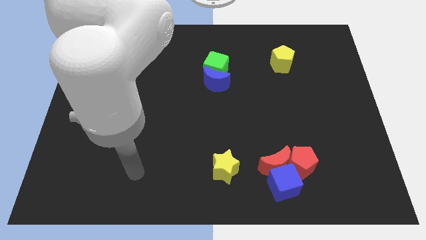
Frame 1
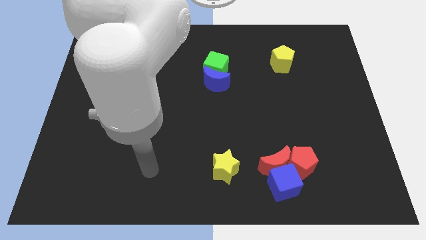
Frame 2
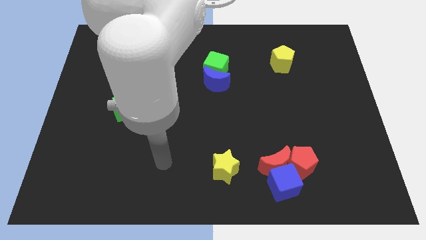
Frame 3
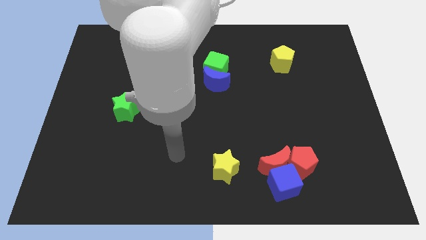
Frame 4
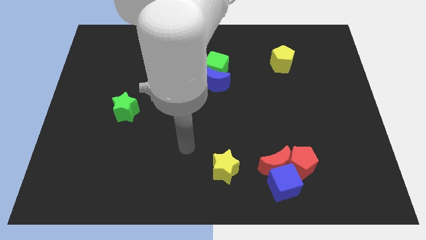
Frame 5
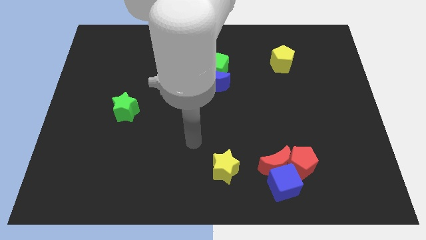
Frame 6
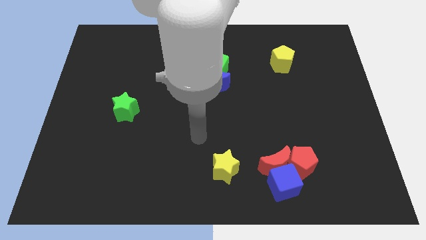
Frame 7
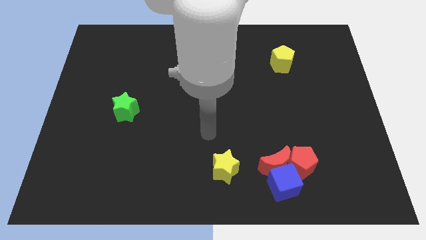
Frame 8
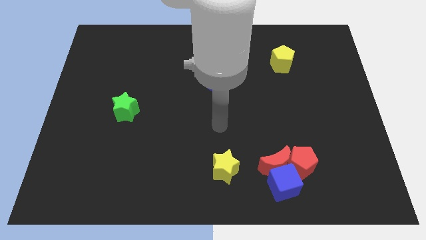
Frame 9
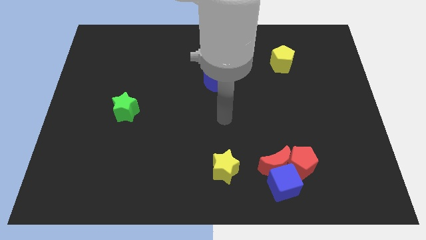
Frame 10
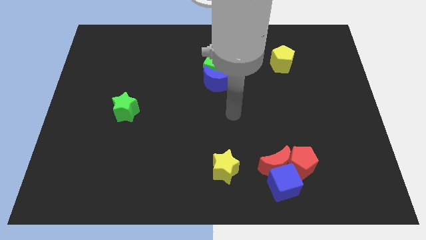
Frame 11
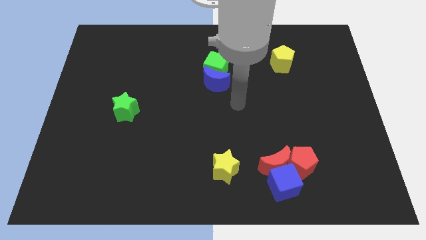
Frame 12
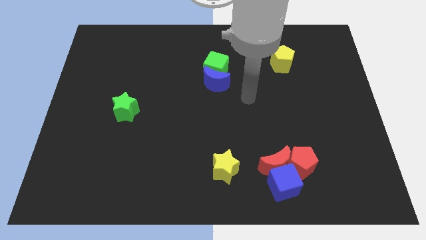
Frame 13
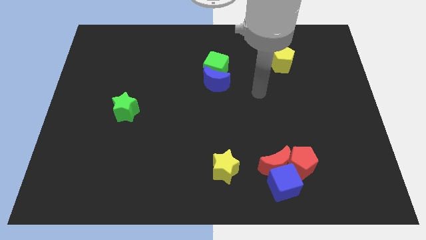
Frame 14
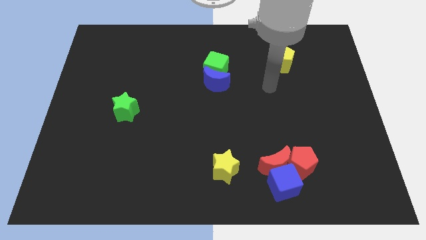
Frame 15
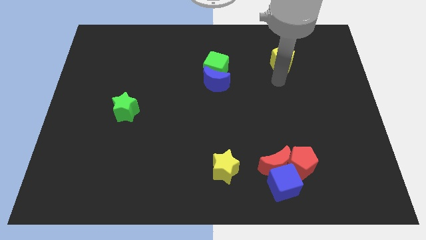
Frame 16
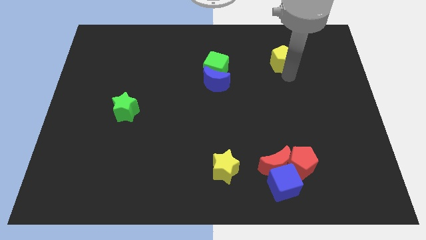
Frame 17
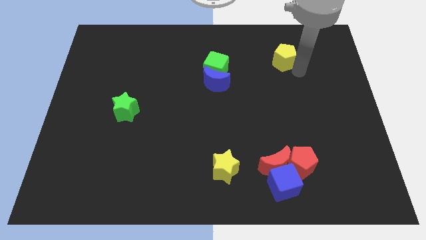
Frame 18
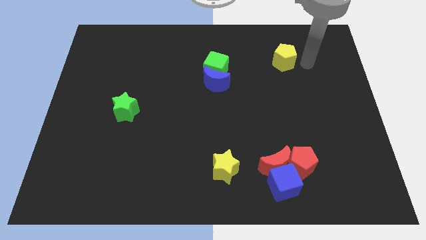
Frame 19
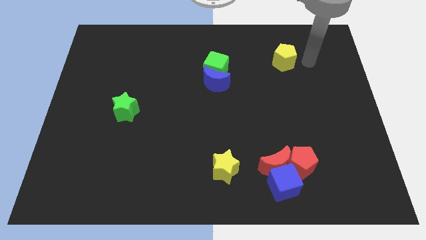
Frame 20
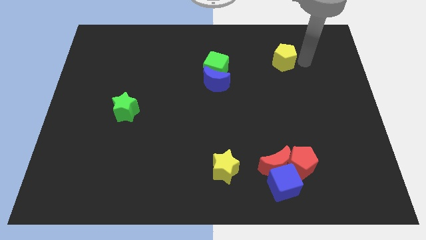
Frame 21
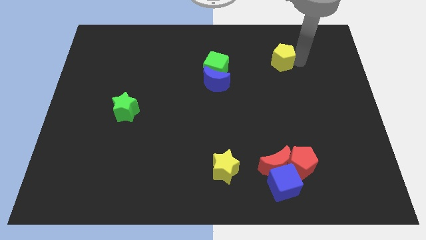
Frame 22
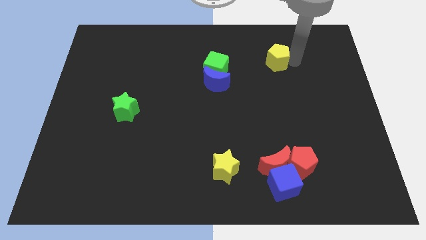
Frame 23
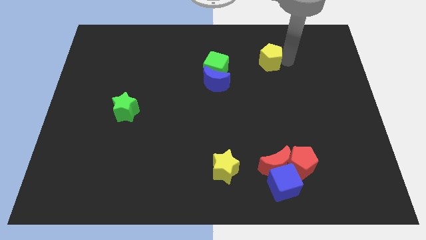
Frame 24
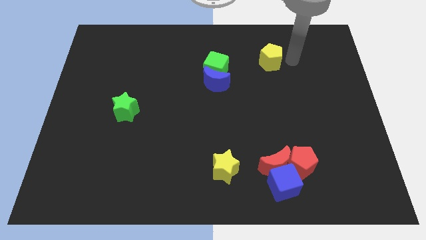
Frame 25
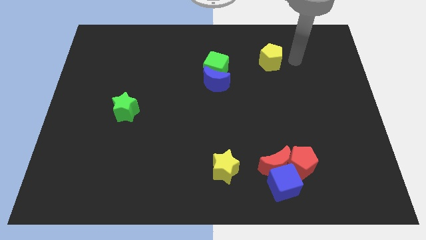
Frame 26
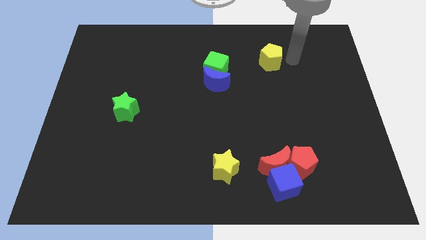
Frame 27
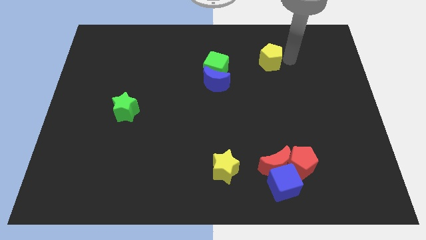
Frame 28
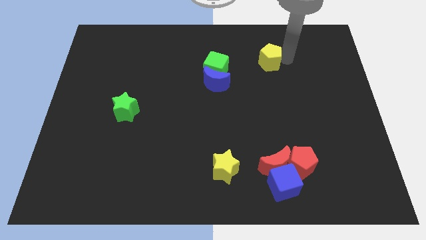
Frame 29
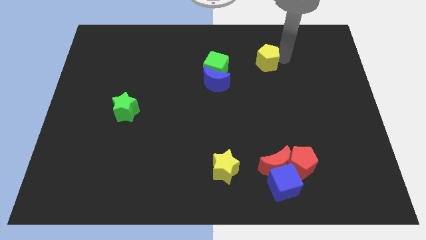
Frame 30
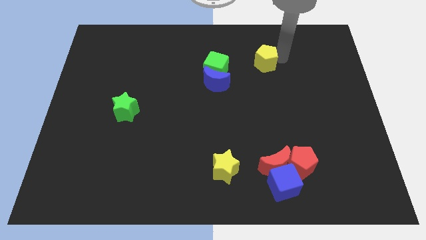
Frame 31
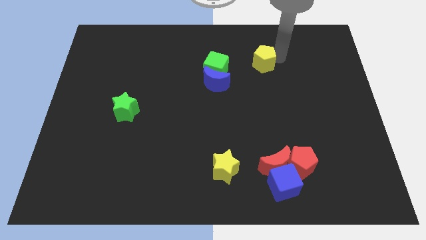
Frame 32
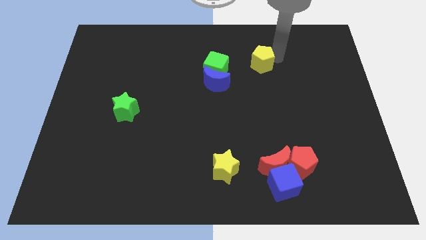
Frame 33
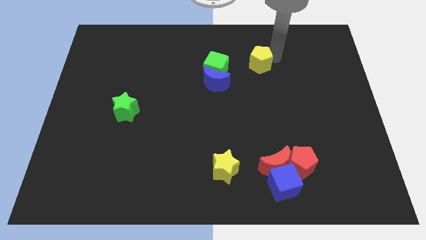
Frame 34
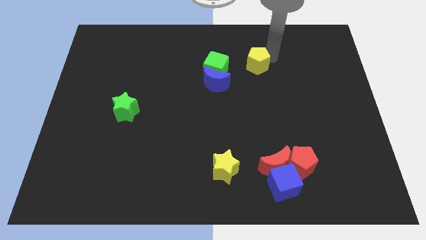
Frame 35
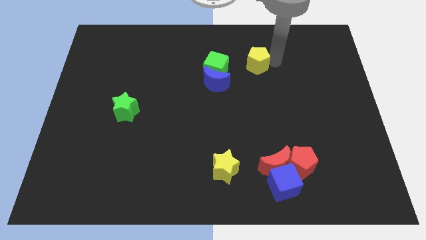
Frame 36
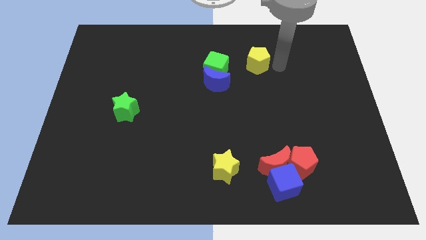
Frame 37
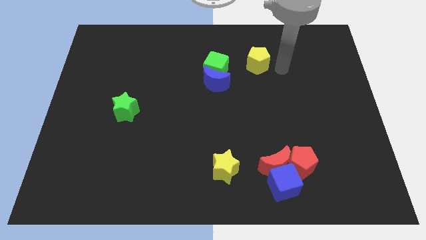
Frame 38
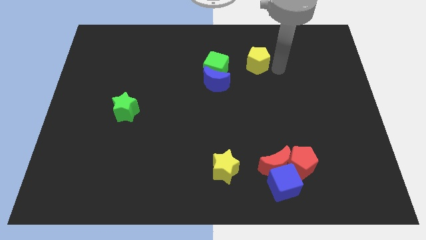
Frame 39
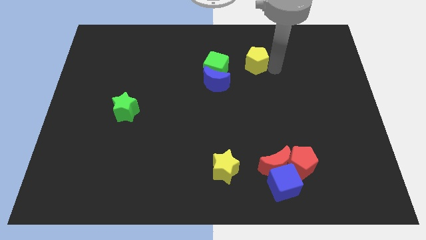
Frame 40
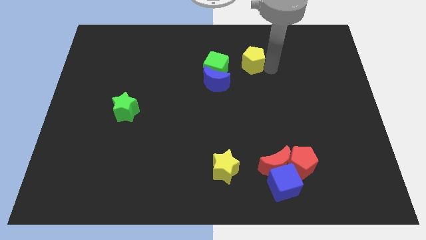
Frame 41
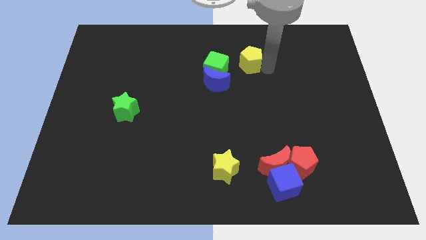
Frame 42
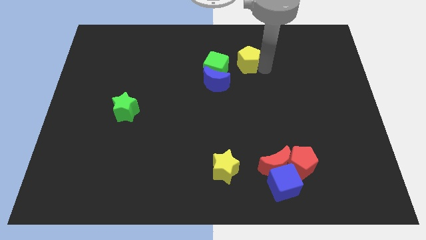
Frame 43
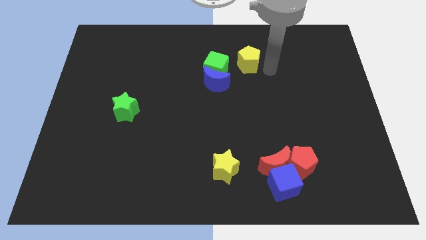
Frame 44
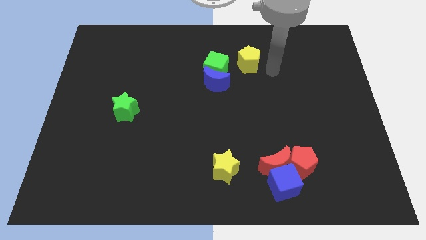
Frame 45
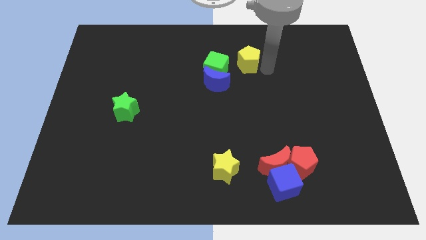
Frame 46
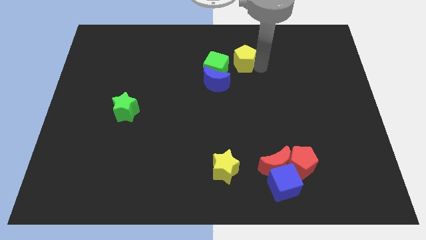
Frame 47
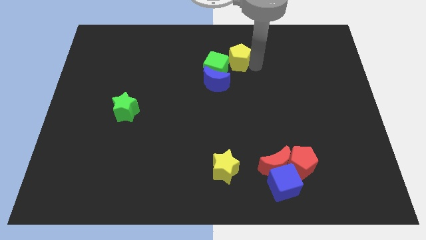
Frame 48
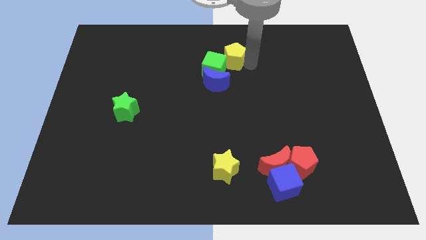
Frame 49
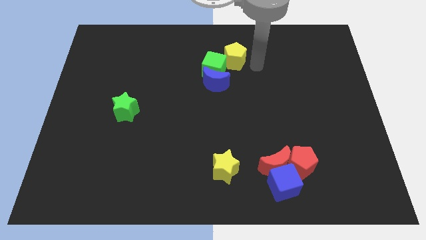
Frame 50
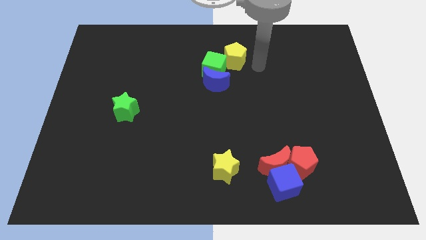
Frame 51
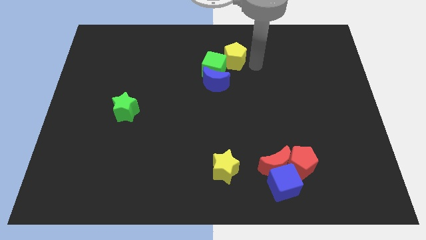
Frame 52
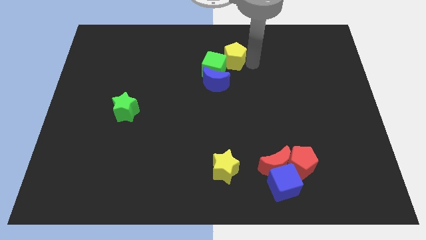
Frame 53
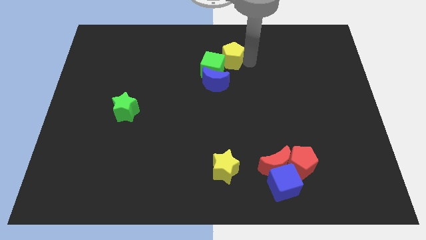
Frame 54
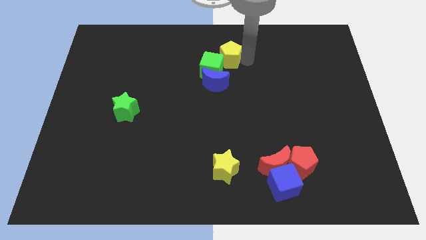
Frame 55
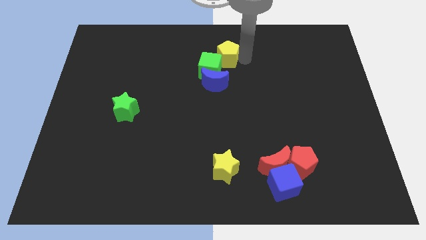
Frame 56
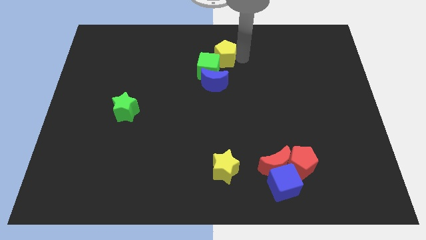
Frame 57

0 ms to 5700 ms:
push the yellow pentagon to the top

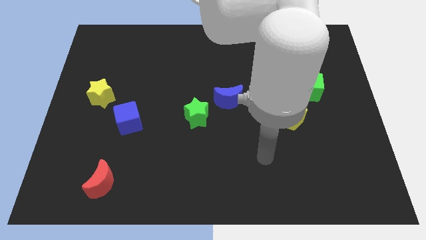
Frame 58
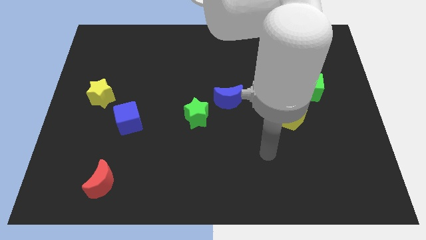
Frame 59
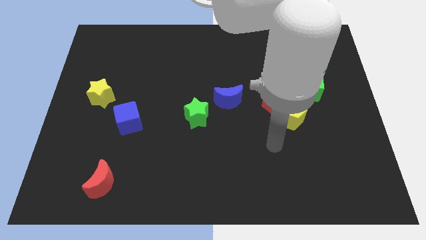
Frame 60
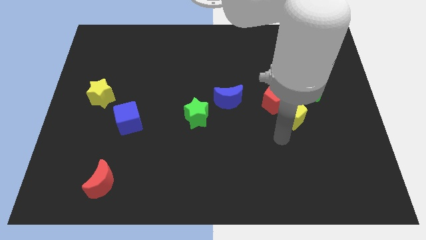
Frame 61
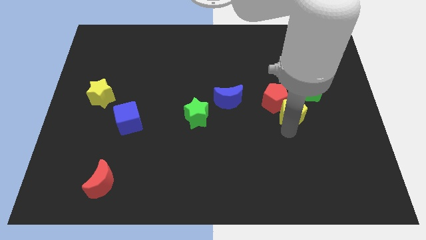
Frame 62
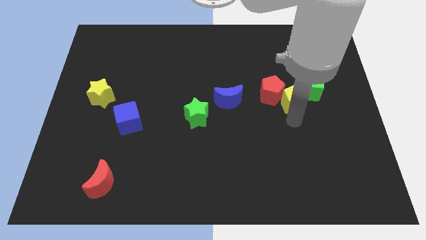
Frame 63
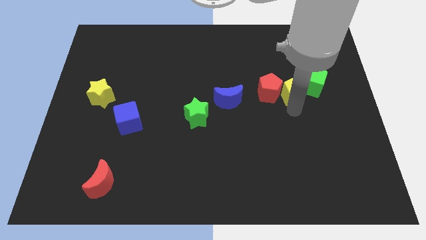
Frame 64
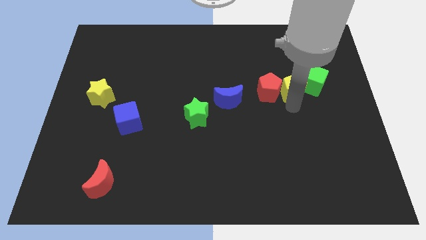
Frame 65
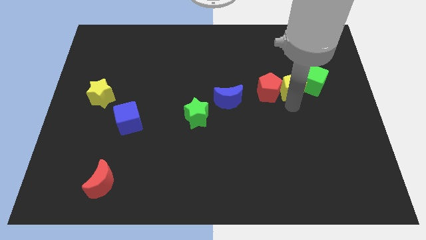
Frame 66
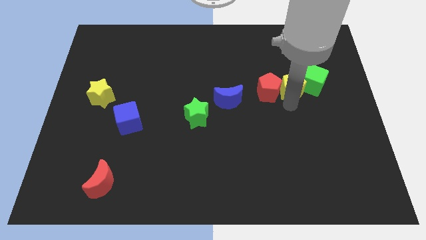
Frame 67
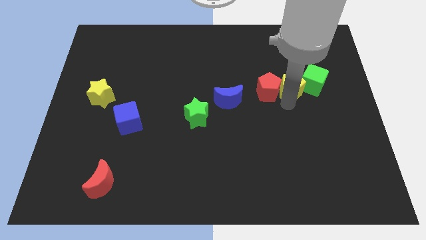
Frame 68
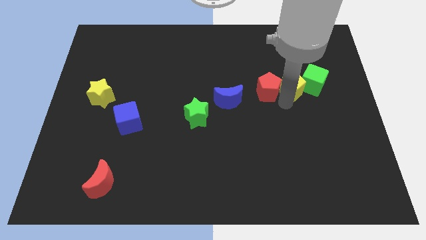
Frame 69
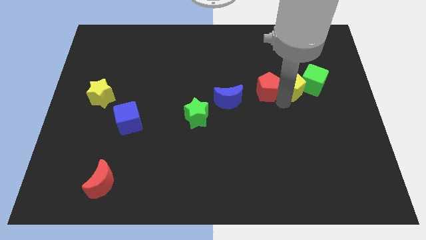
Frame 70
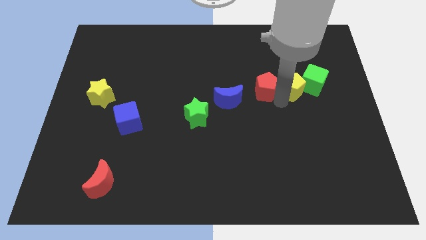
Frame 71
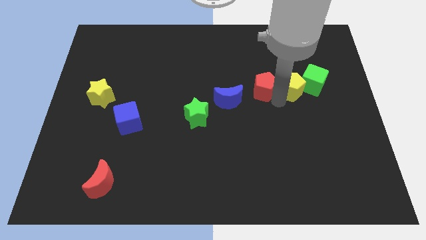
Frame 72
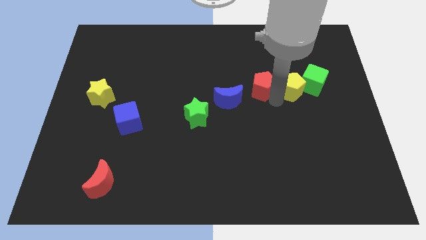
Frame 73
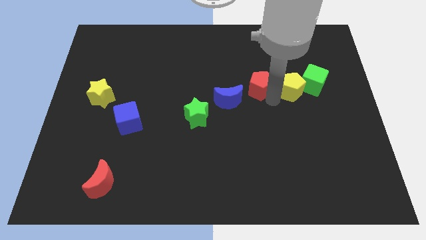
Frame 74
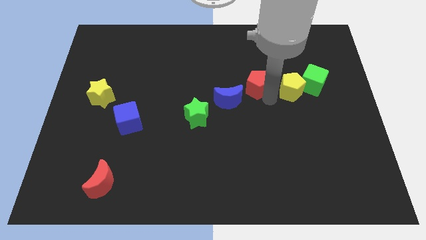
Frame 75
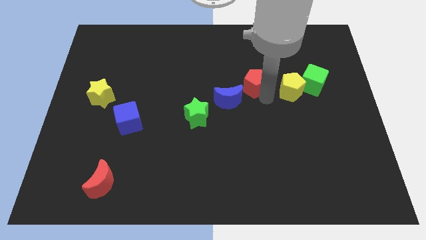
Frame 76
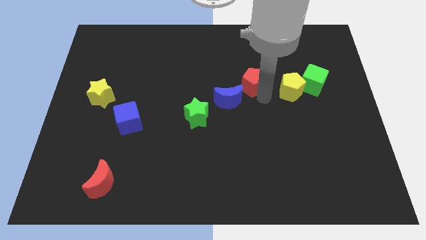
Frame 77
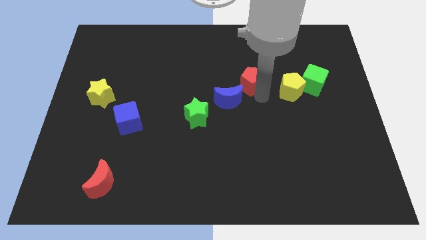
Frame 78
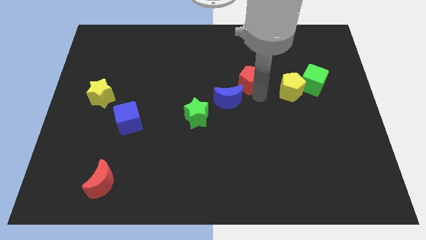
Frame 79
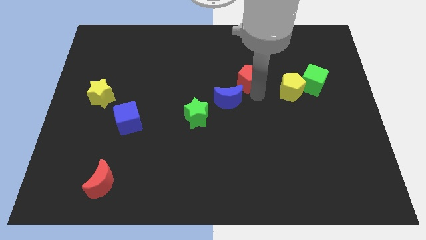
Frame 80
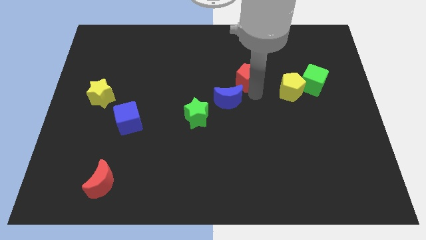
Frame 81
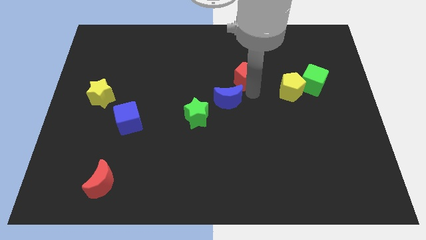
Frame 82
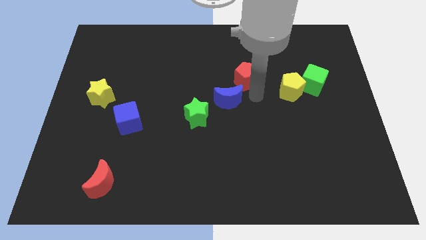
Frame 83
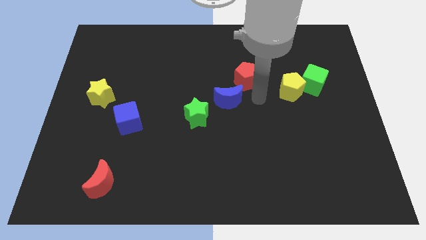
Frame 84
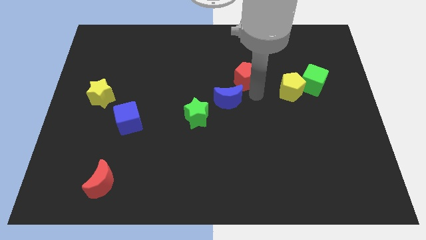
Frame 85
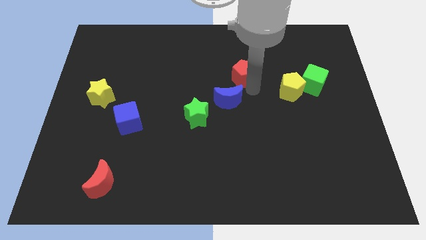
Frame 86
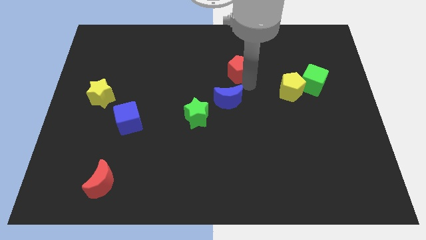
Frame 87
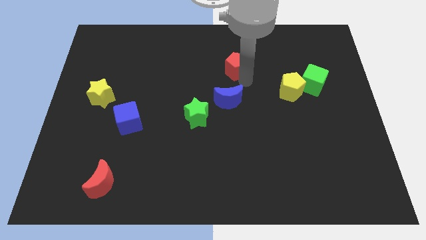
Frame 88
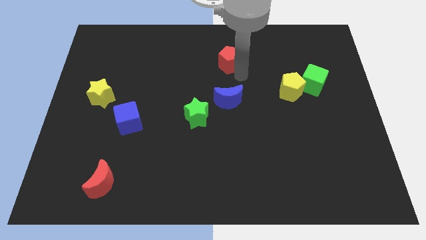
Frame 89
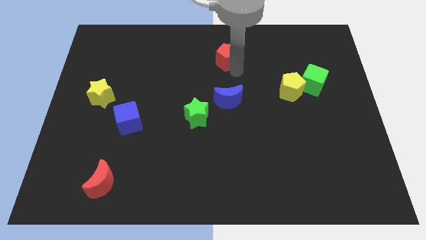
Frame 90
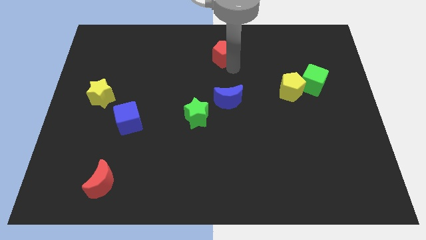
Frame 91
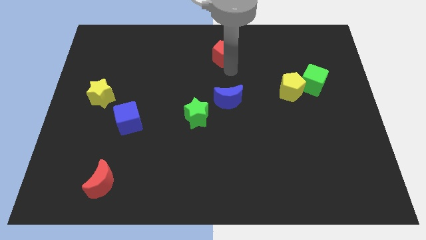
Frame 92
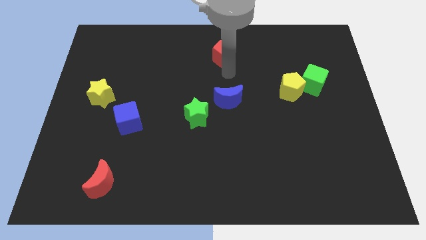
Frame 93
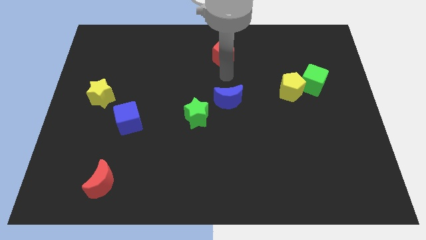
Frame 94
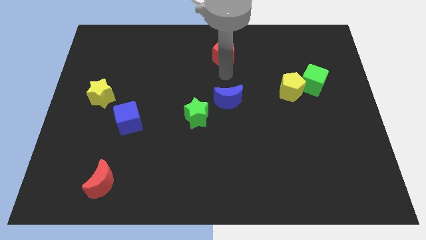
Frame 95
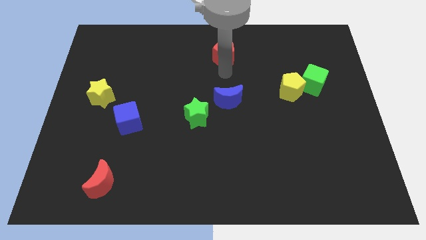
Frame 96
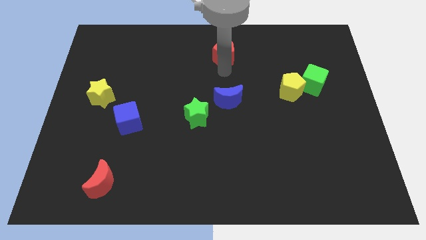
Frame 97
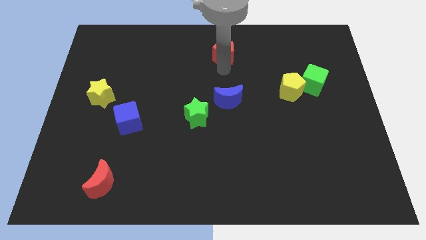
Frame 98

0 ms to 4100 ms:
push the red pentagon to the towards your base
